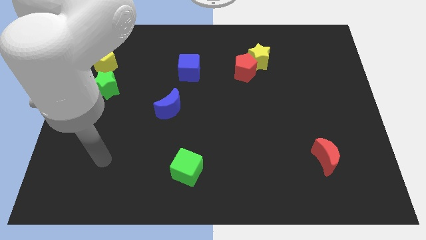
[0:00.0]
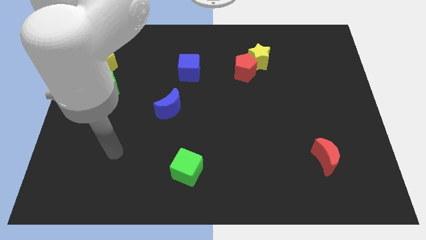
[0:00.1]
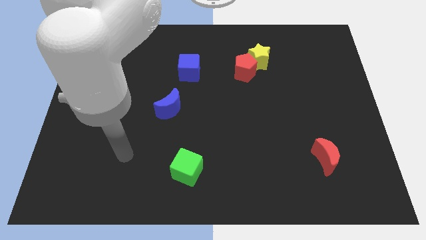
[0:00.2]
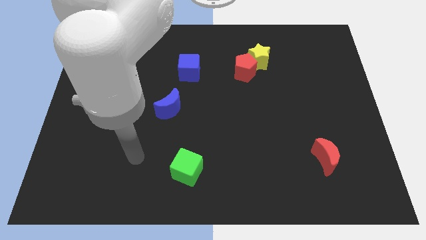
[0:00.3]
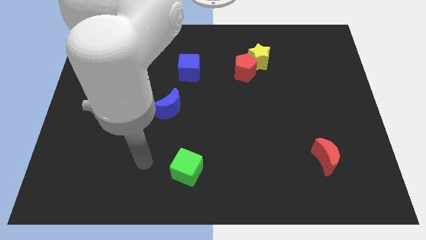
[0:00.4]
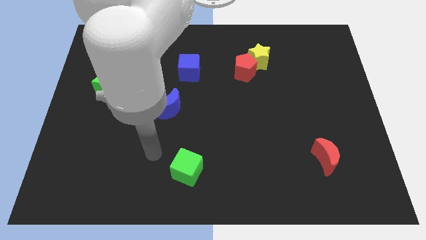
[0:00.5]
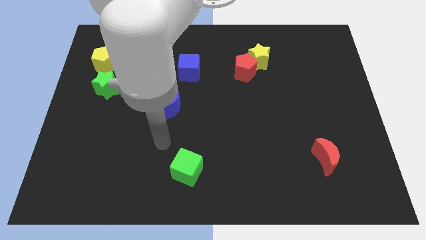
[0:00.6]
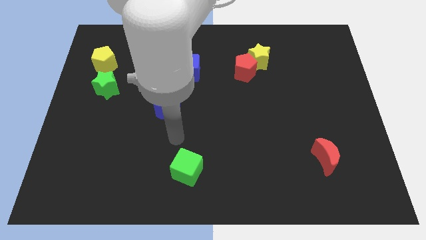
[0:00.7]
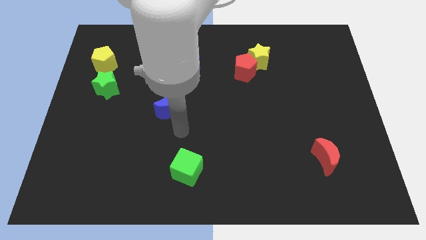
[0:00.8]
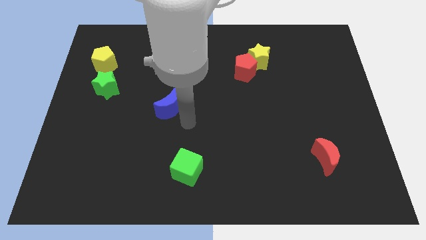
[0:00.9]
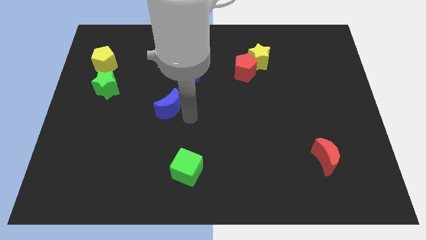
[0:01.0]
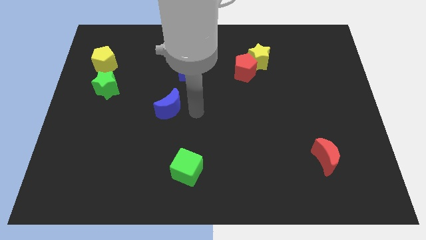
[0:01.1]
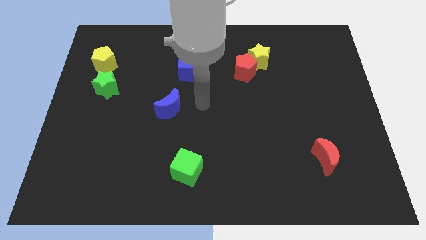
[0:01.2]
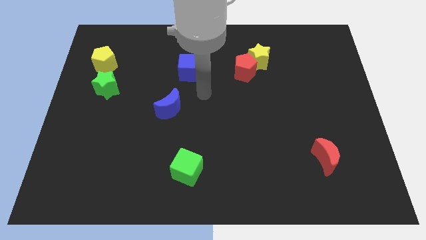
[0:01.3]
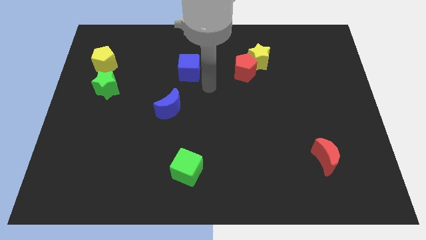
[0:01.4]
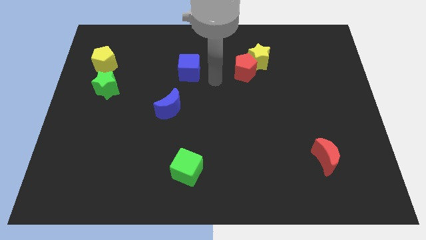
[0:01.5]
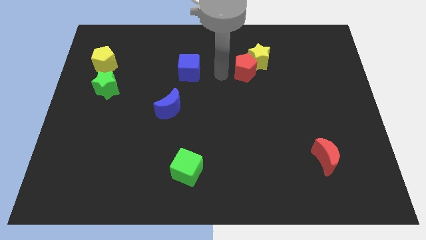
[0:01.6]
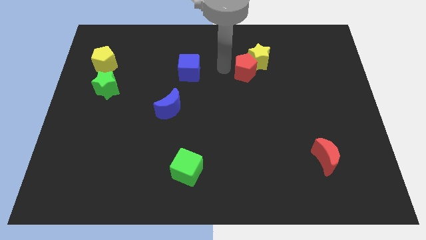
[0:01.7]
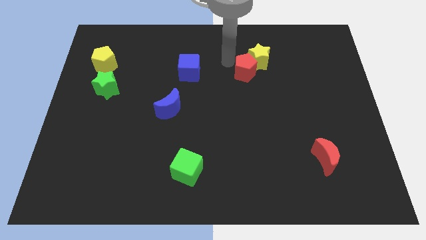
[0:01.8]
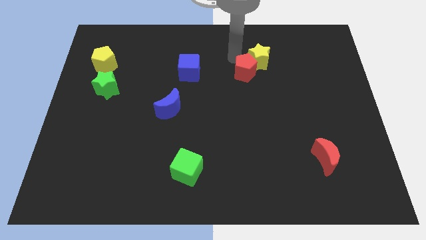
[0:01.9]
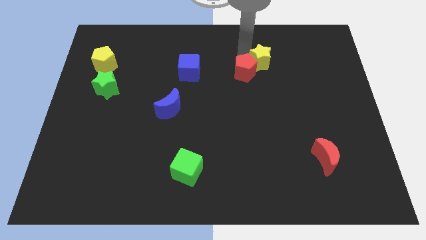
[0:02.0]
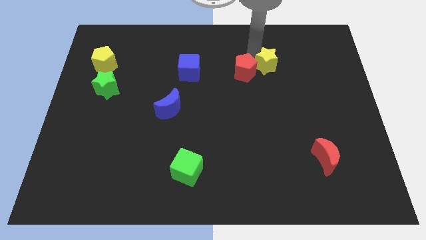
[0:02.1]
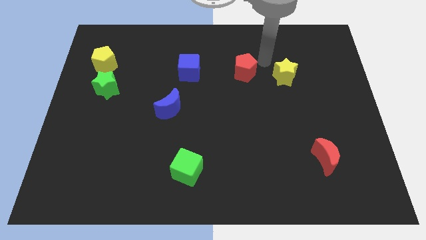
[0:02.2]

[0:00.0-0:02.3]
move the red pentagon away from the yellow star

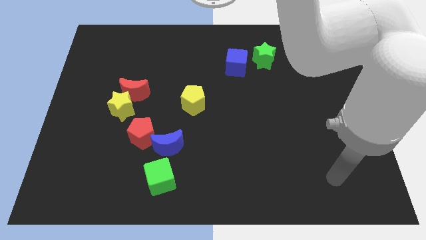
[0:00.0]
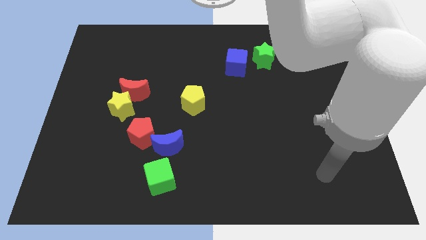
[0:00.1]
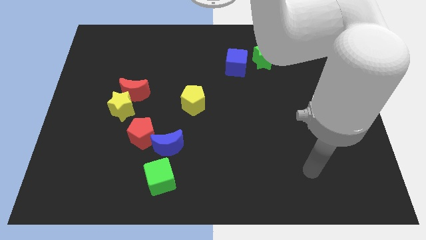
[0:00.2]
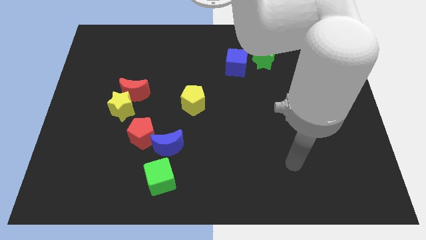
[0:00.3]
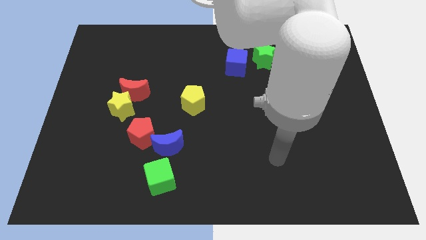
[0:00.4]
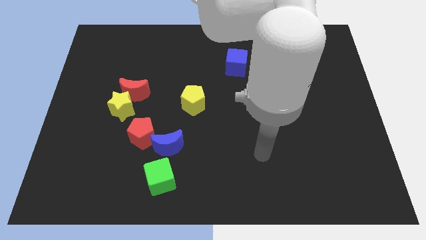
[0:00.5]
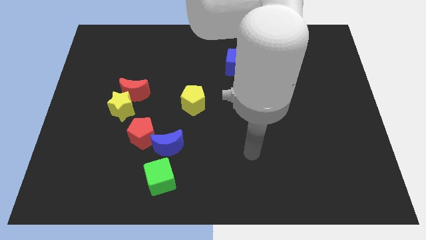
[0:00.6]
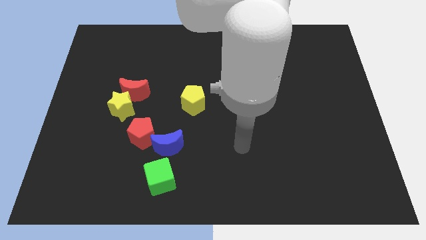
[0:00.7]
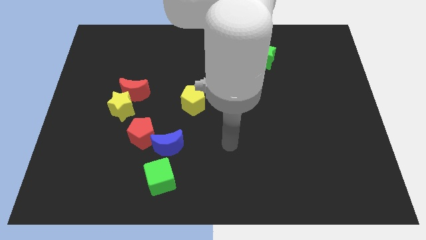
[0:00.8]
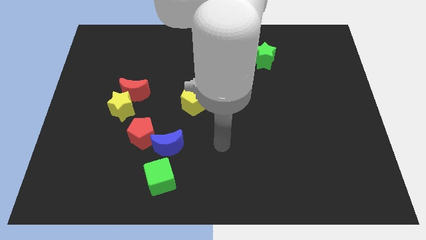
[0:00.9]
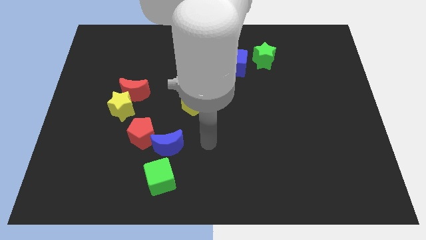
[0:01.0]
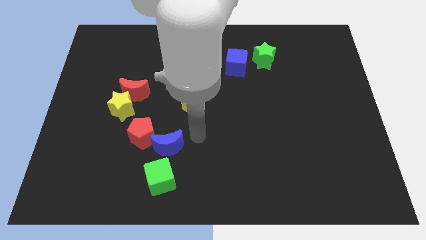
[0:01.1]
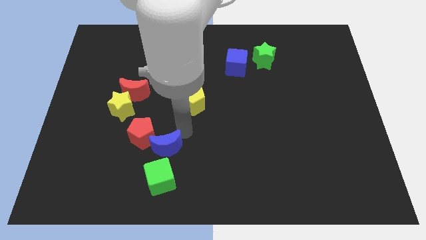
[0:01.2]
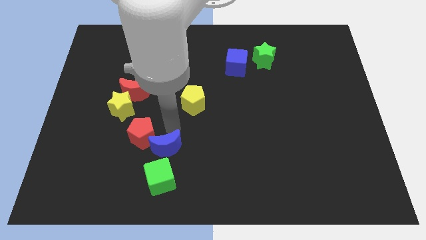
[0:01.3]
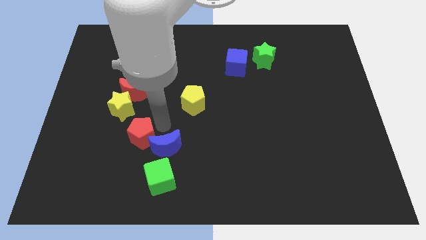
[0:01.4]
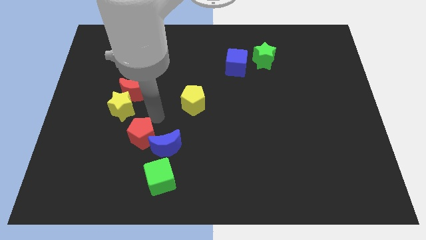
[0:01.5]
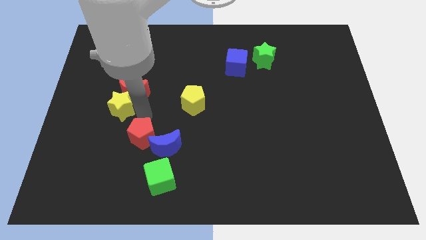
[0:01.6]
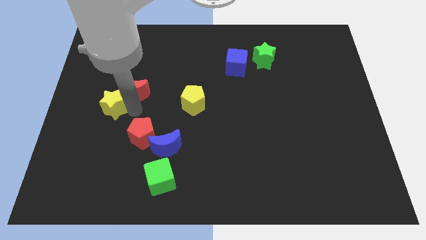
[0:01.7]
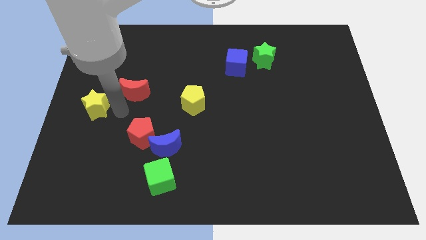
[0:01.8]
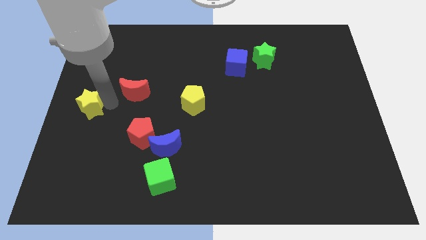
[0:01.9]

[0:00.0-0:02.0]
separate the red moon from the yellow star

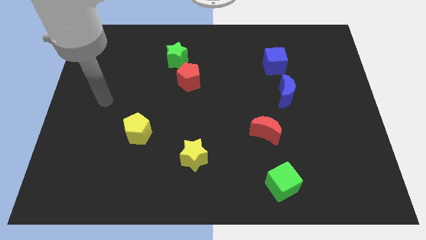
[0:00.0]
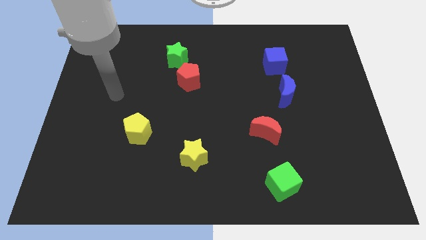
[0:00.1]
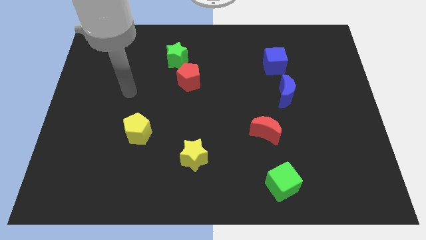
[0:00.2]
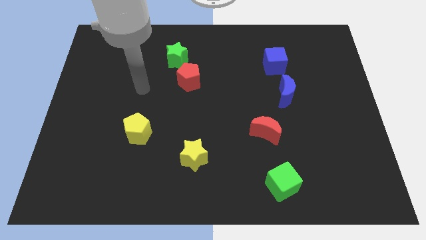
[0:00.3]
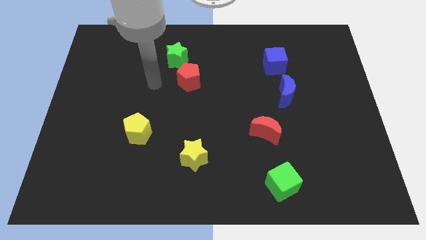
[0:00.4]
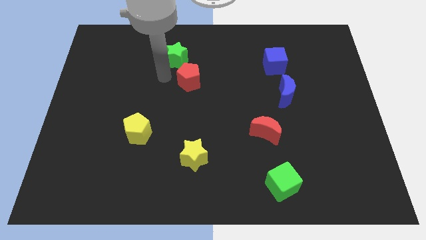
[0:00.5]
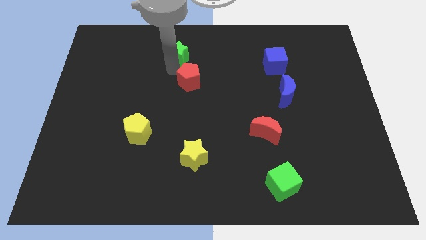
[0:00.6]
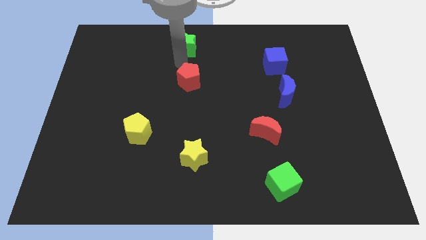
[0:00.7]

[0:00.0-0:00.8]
move the red pentagon away from the green star

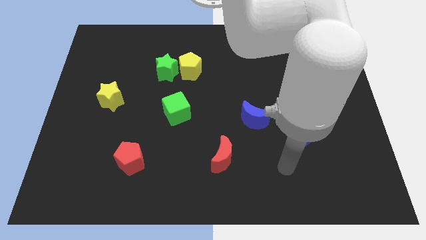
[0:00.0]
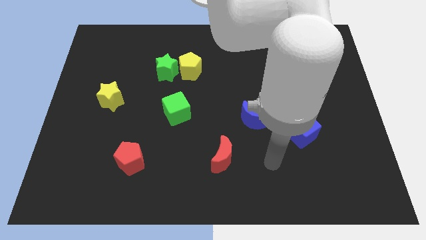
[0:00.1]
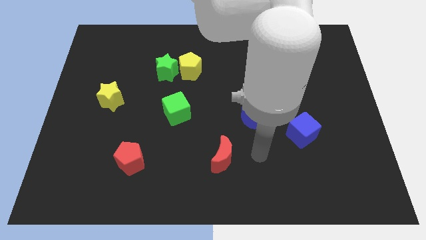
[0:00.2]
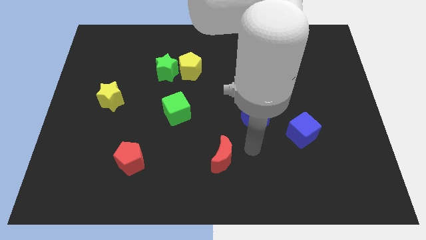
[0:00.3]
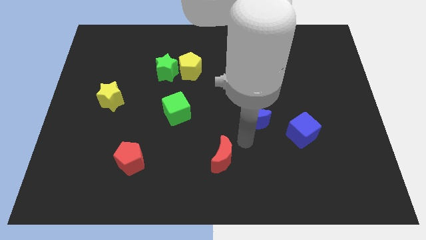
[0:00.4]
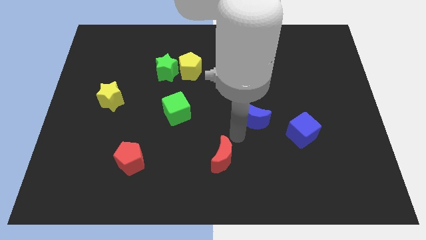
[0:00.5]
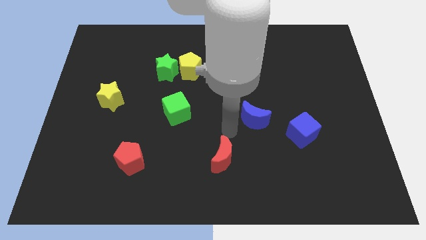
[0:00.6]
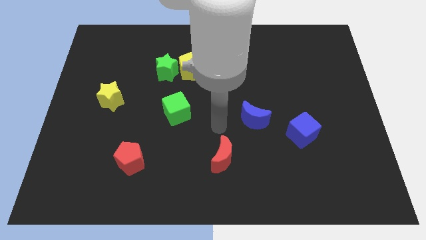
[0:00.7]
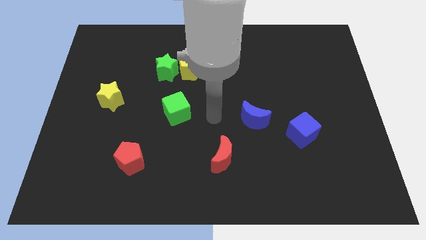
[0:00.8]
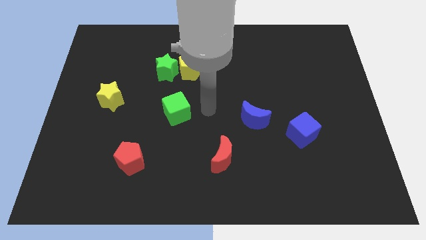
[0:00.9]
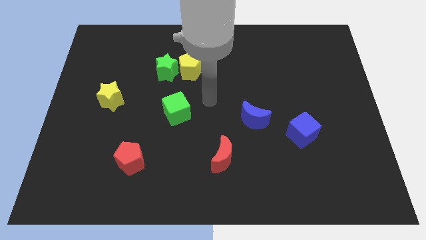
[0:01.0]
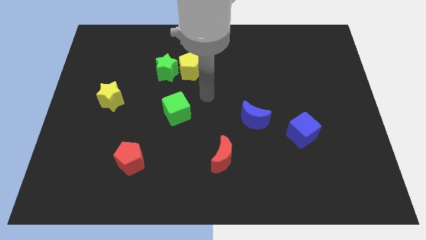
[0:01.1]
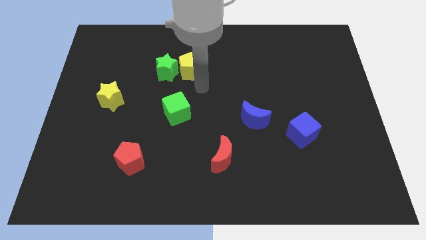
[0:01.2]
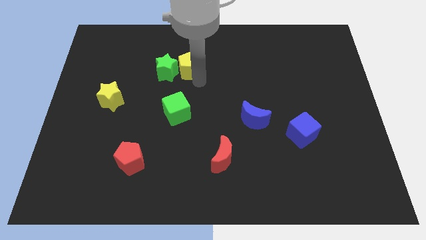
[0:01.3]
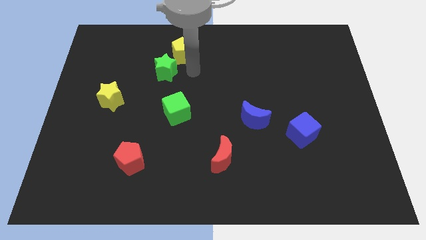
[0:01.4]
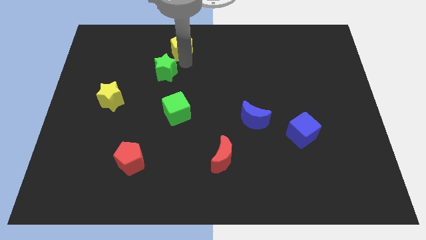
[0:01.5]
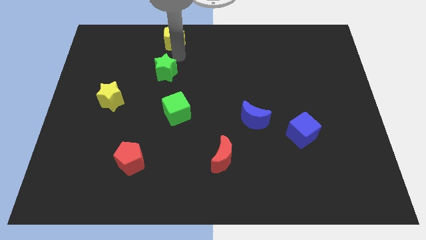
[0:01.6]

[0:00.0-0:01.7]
separate the green star from the yellow pentagon

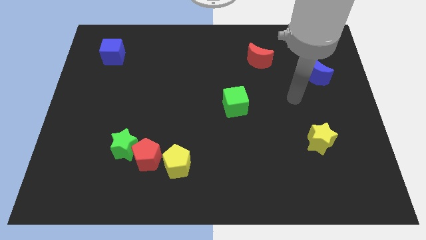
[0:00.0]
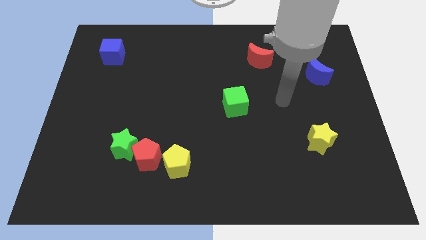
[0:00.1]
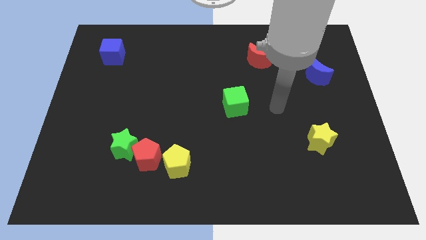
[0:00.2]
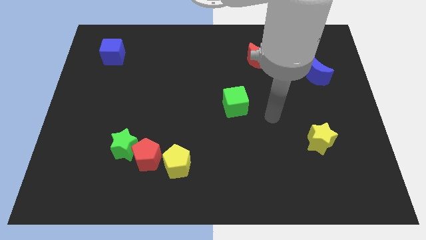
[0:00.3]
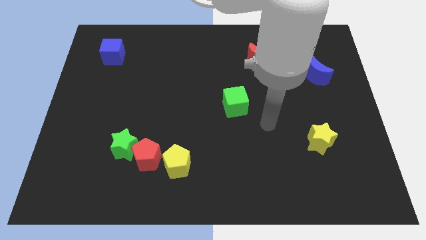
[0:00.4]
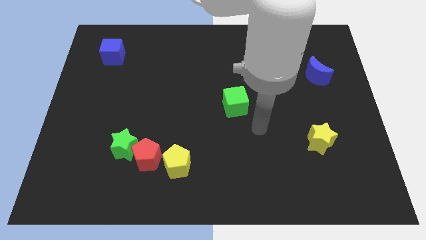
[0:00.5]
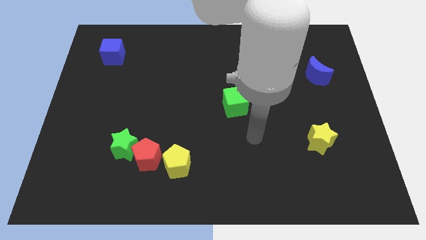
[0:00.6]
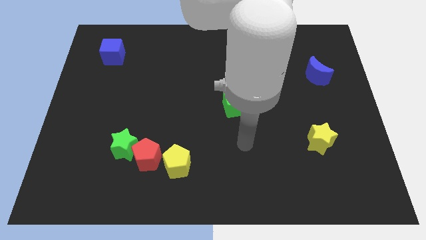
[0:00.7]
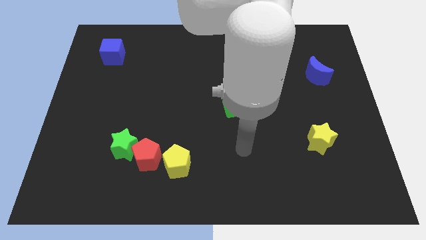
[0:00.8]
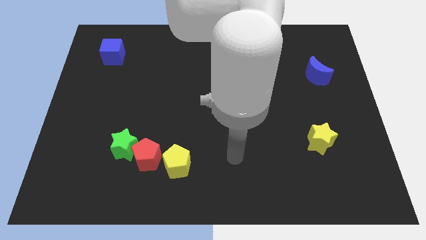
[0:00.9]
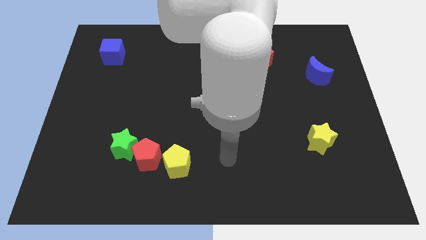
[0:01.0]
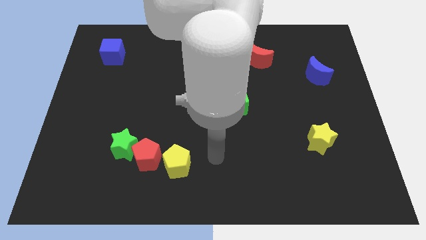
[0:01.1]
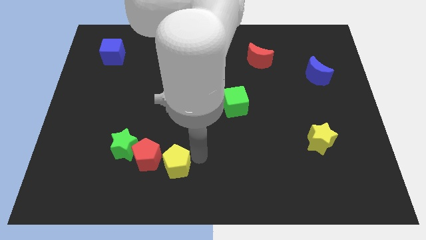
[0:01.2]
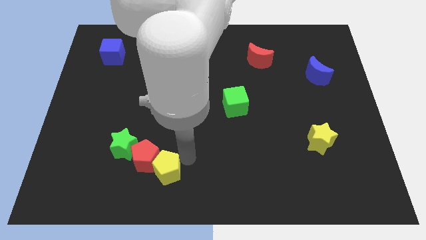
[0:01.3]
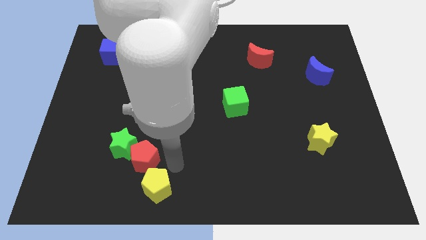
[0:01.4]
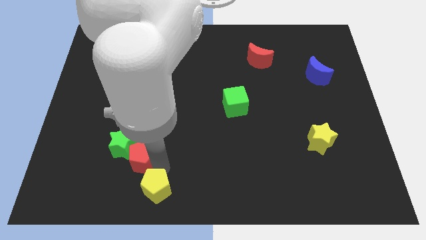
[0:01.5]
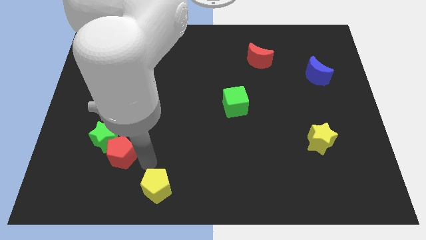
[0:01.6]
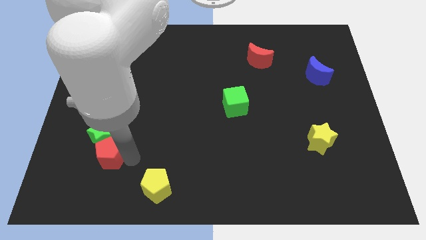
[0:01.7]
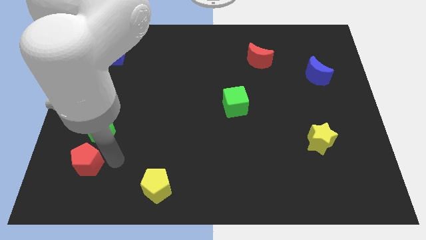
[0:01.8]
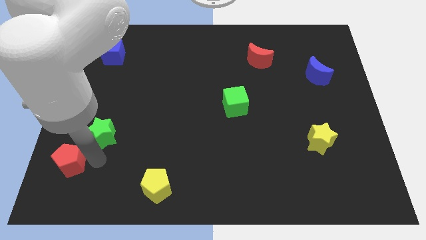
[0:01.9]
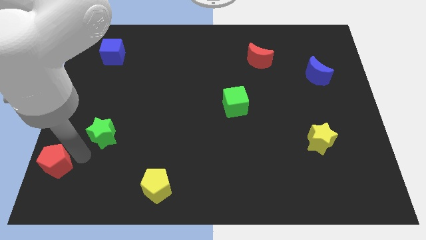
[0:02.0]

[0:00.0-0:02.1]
move the green star away from the red pentagon

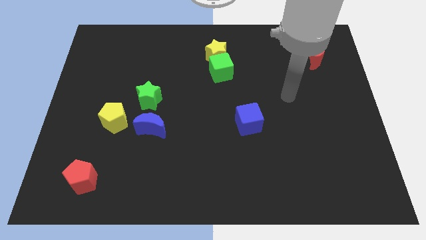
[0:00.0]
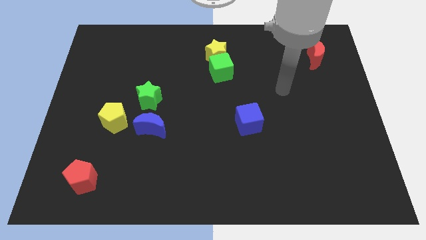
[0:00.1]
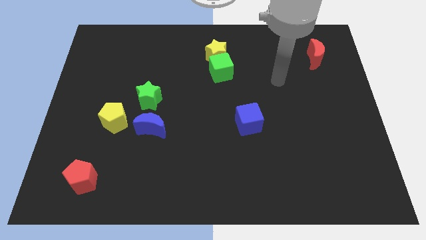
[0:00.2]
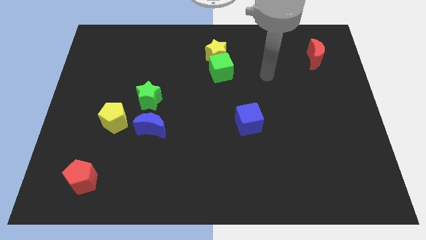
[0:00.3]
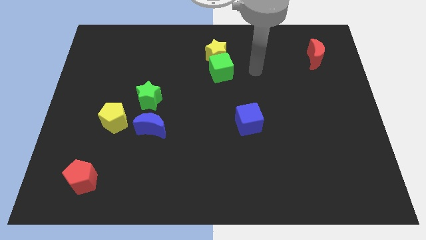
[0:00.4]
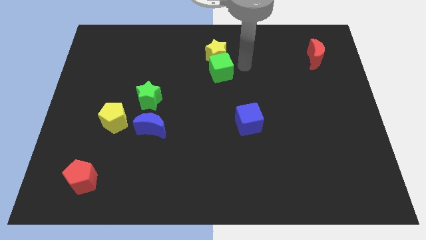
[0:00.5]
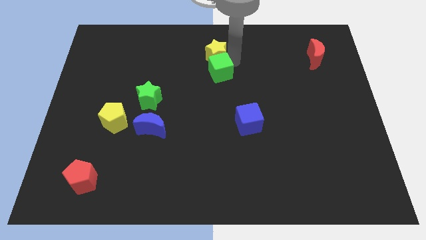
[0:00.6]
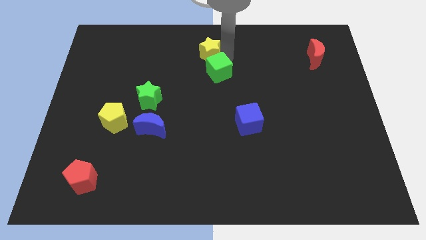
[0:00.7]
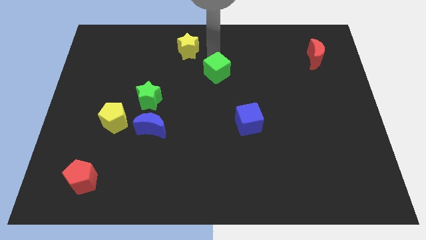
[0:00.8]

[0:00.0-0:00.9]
pull the green cube apart from the yellow star
